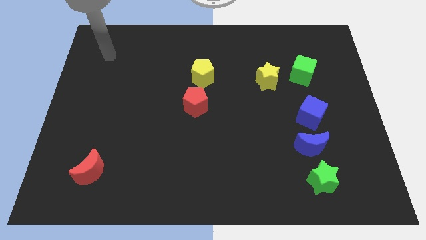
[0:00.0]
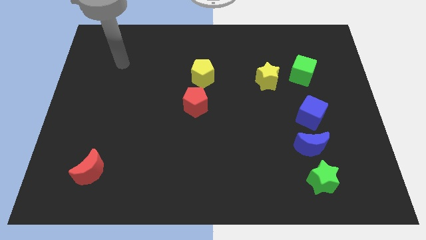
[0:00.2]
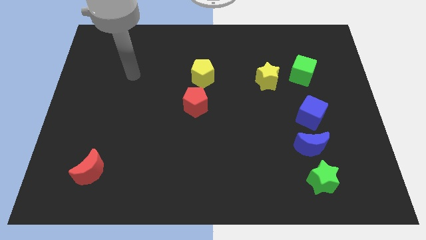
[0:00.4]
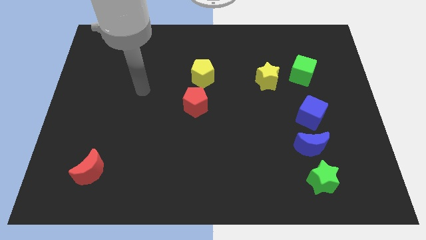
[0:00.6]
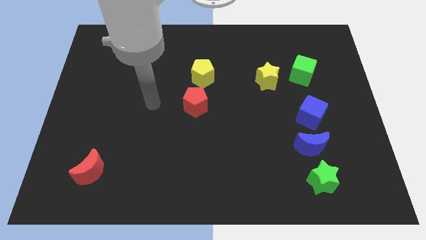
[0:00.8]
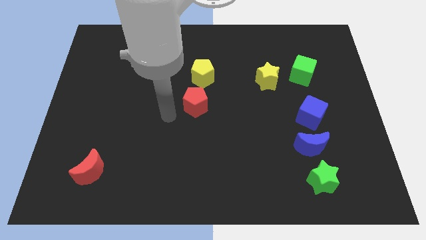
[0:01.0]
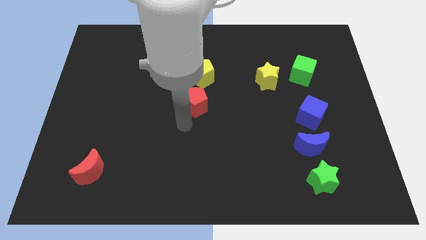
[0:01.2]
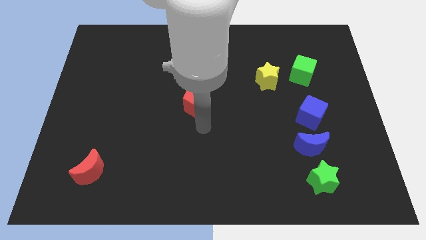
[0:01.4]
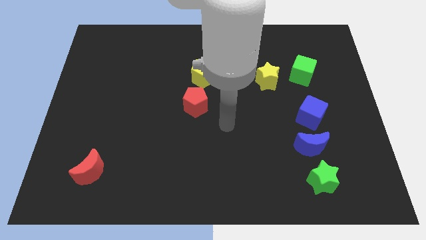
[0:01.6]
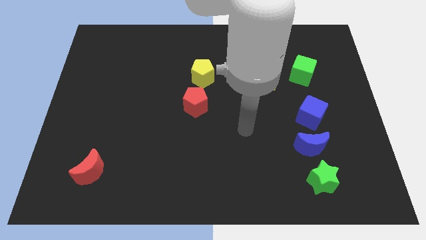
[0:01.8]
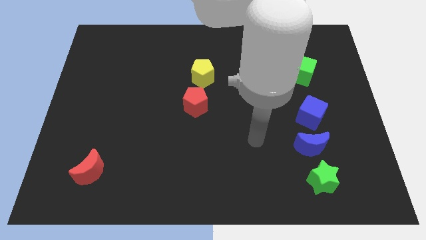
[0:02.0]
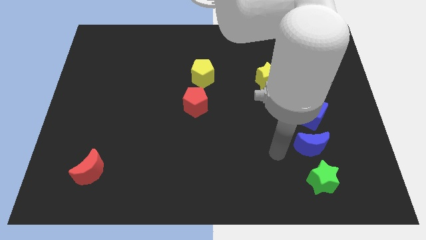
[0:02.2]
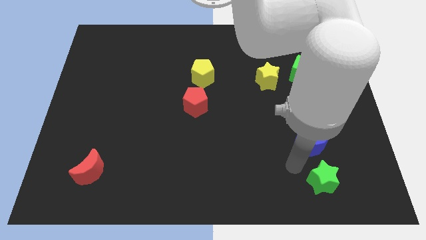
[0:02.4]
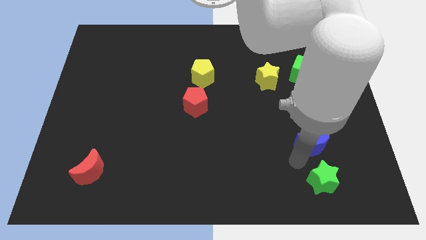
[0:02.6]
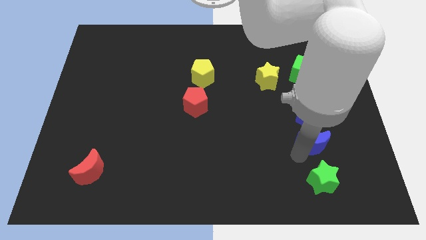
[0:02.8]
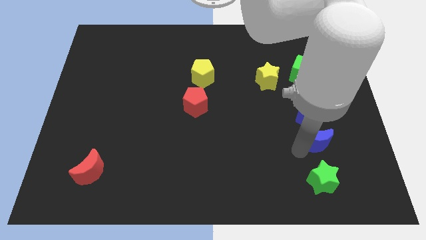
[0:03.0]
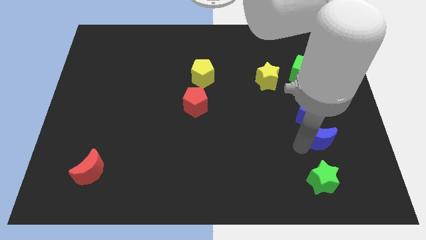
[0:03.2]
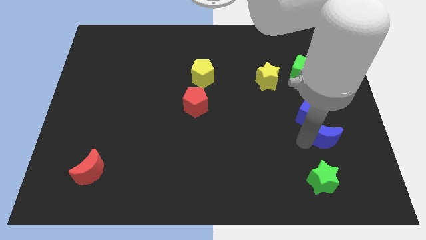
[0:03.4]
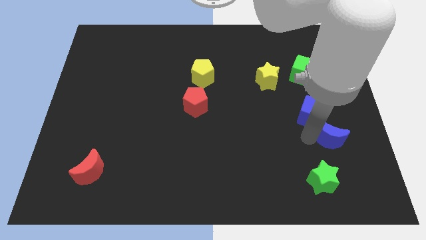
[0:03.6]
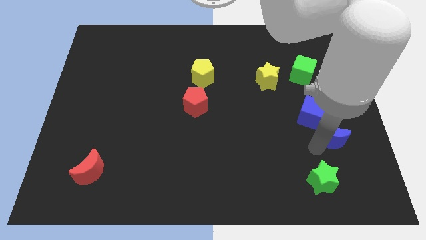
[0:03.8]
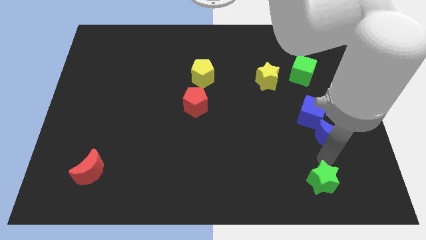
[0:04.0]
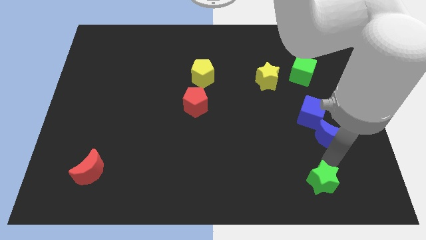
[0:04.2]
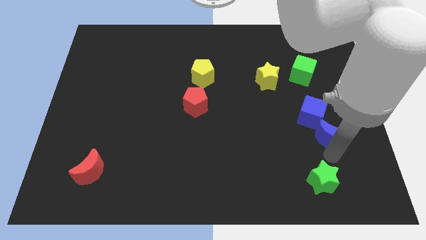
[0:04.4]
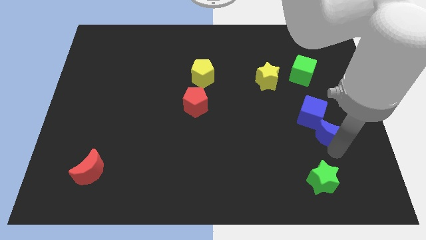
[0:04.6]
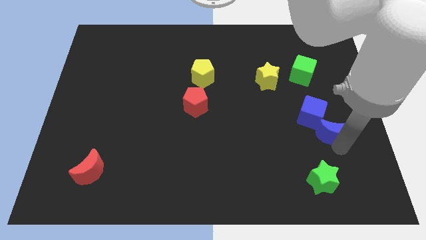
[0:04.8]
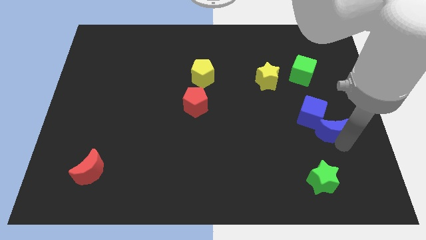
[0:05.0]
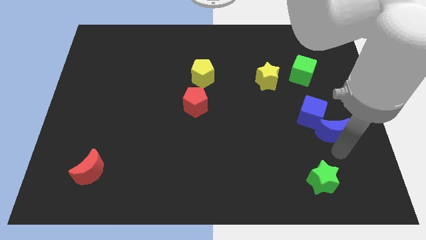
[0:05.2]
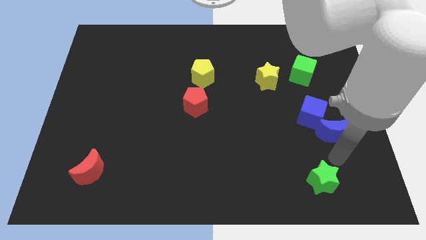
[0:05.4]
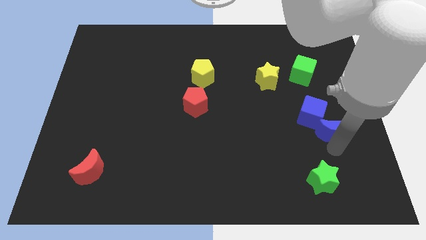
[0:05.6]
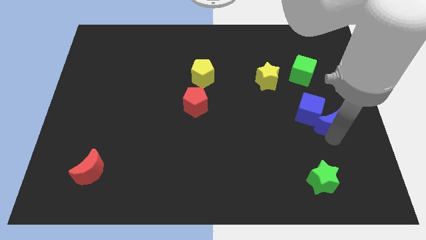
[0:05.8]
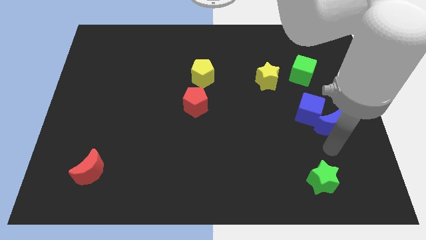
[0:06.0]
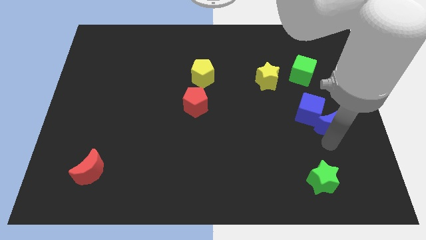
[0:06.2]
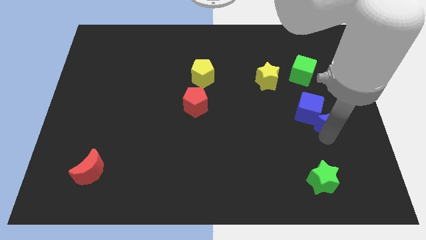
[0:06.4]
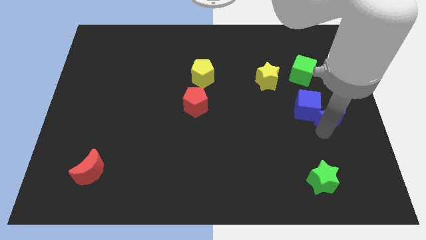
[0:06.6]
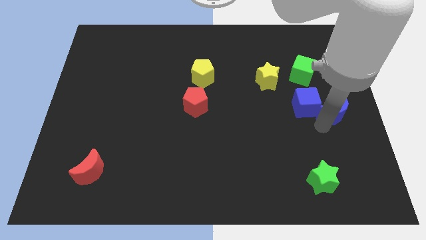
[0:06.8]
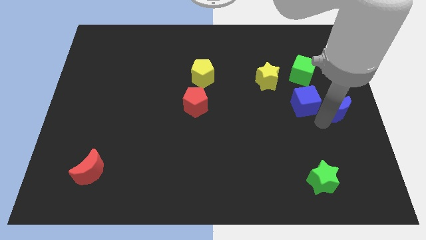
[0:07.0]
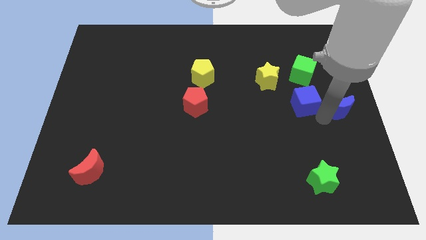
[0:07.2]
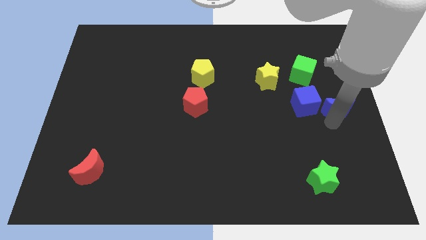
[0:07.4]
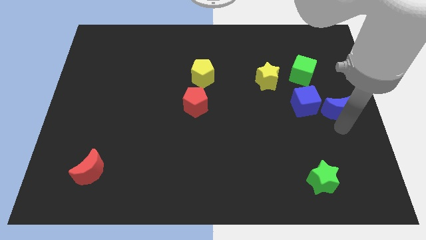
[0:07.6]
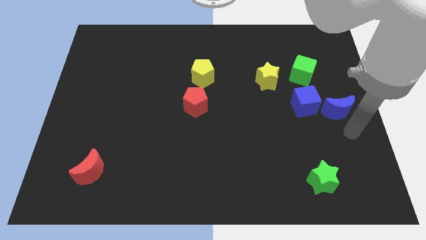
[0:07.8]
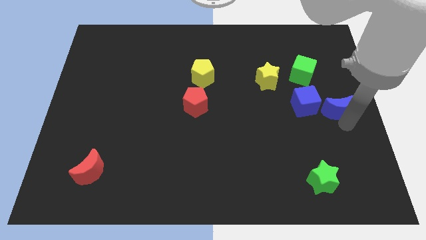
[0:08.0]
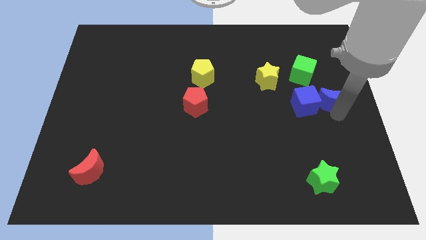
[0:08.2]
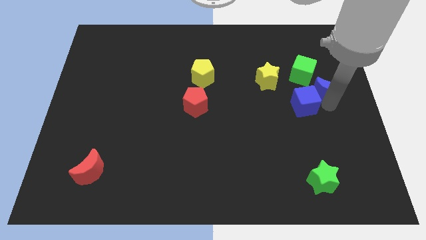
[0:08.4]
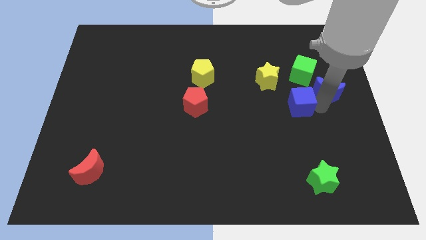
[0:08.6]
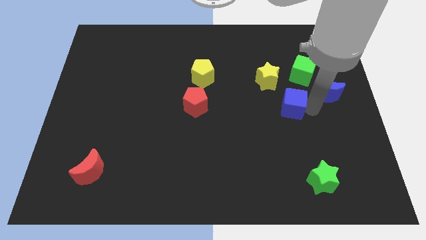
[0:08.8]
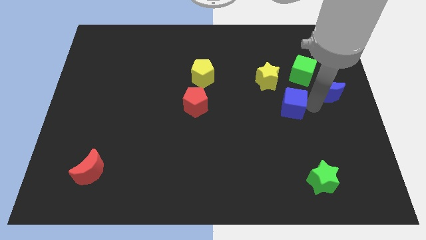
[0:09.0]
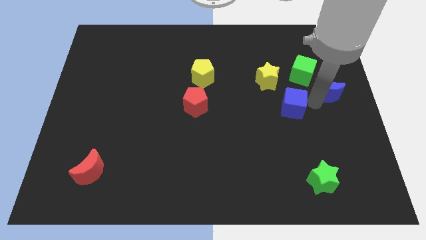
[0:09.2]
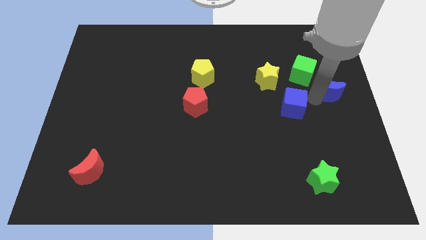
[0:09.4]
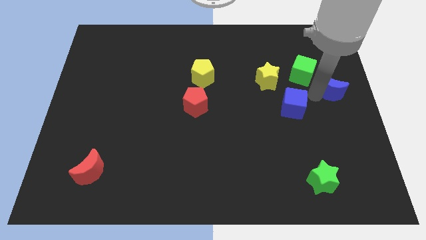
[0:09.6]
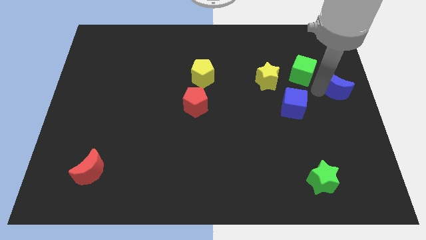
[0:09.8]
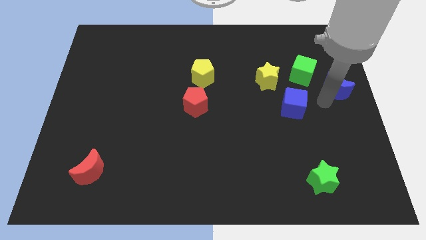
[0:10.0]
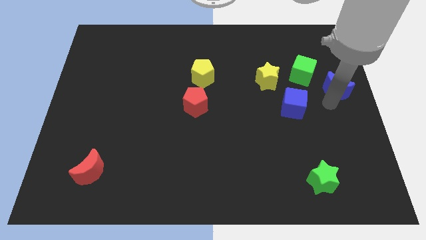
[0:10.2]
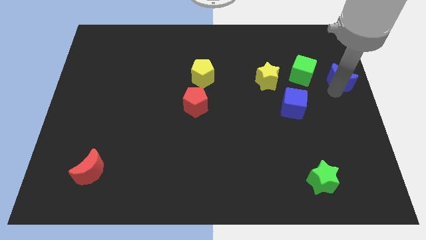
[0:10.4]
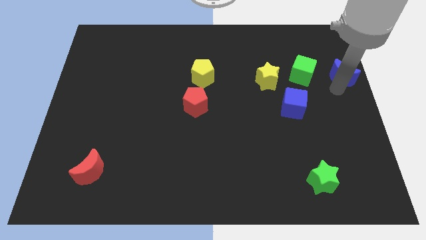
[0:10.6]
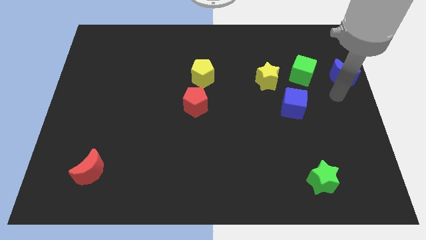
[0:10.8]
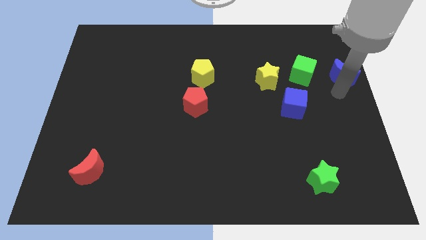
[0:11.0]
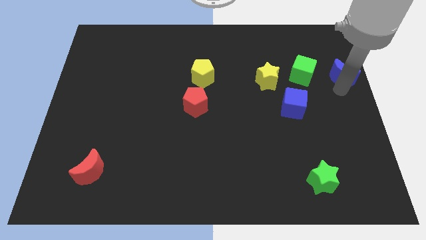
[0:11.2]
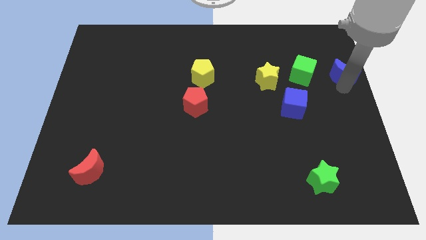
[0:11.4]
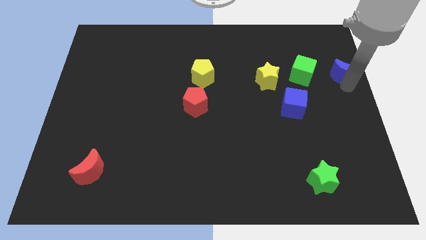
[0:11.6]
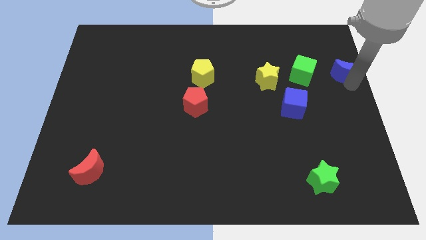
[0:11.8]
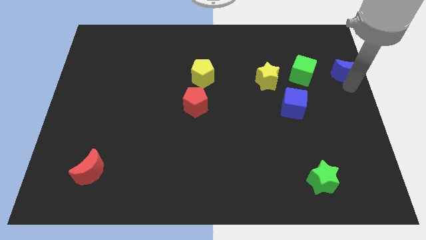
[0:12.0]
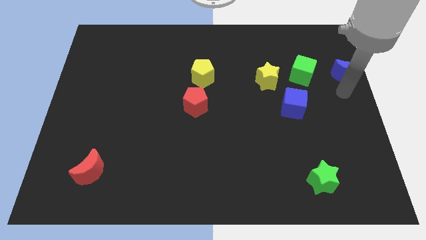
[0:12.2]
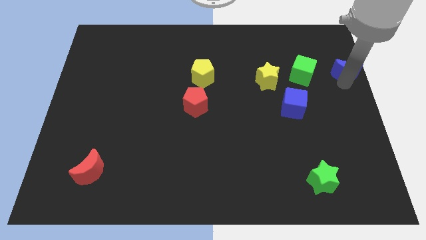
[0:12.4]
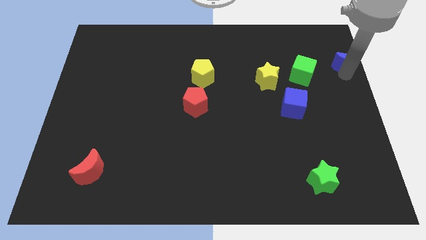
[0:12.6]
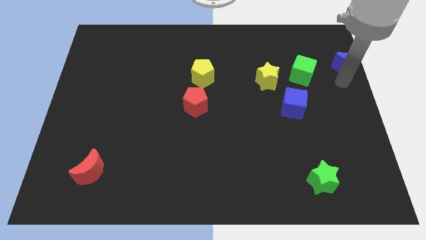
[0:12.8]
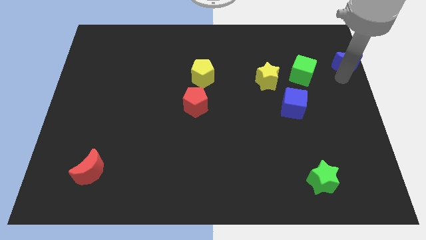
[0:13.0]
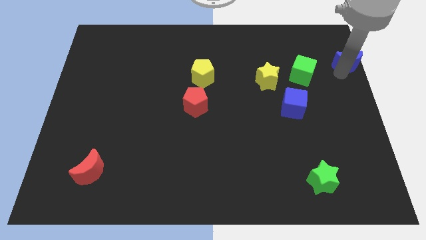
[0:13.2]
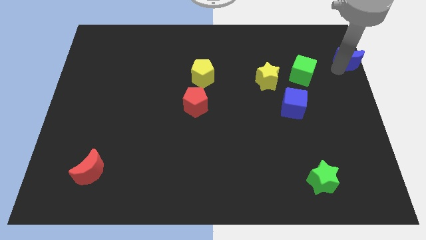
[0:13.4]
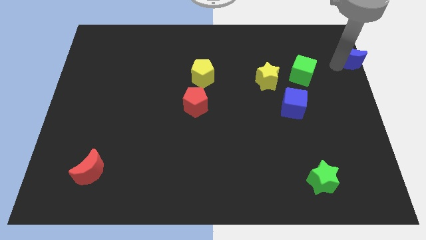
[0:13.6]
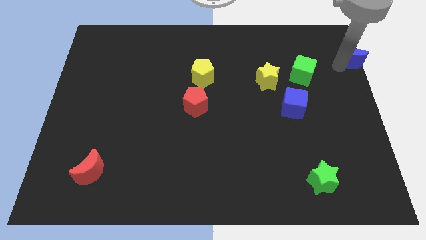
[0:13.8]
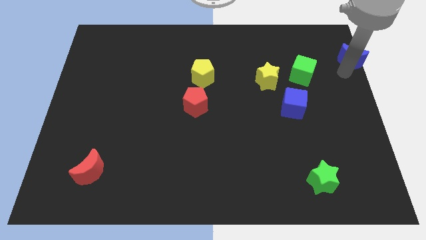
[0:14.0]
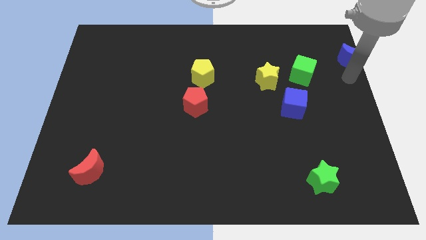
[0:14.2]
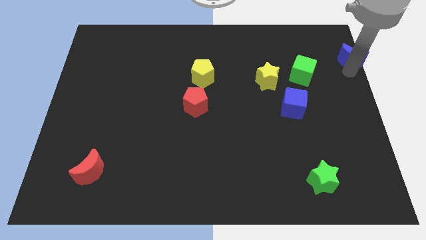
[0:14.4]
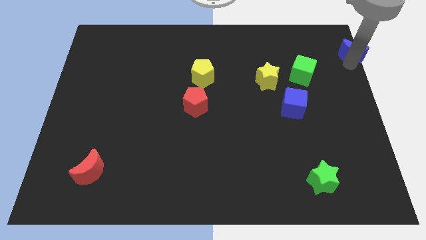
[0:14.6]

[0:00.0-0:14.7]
slide the blue moon to the top right of the board
